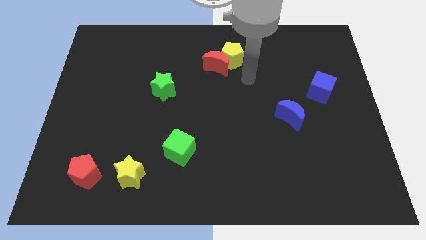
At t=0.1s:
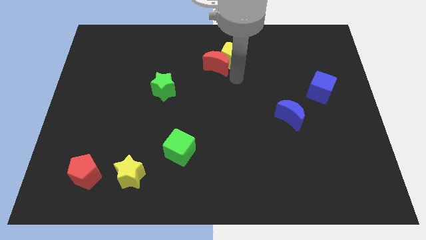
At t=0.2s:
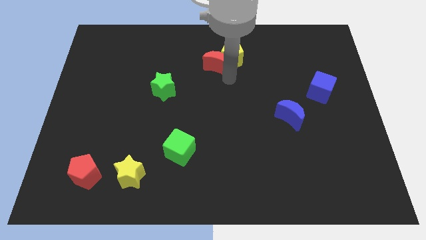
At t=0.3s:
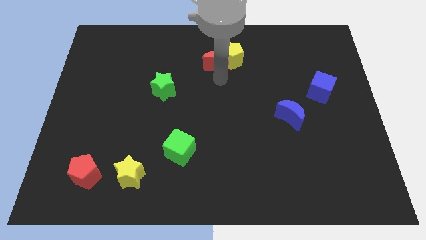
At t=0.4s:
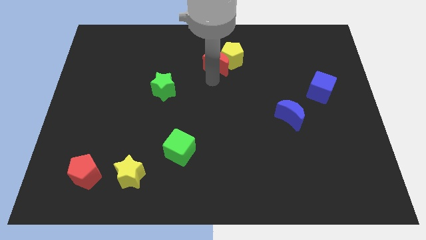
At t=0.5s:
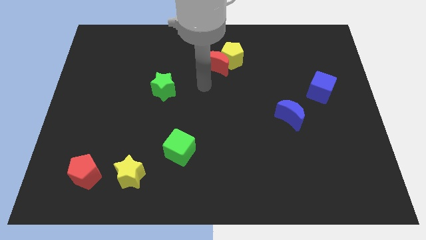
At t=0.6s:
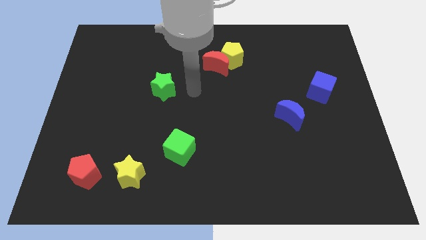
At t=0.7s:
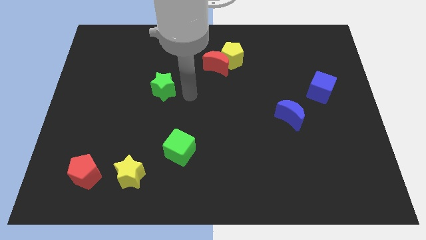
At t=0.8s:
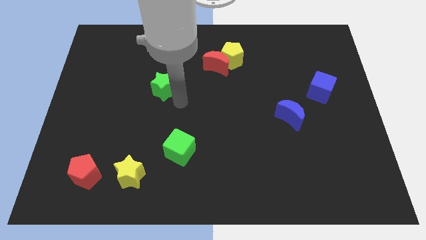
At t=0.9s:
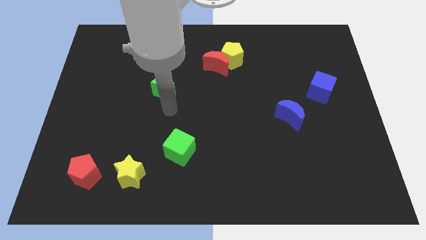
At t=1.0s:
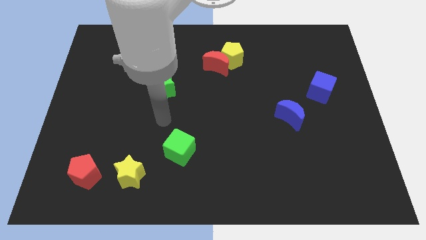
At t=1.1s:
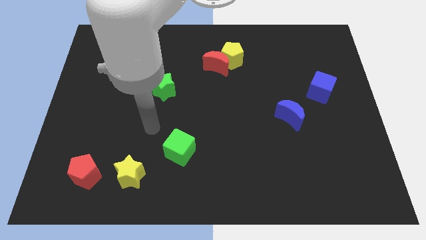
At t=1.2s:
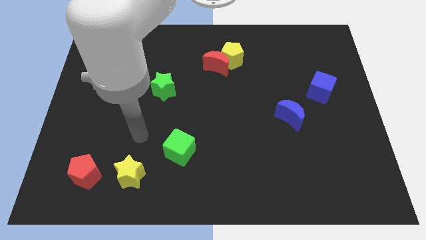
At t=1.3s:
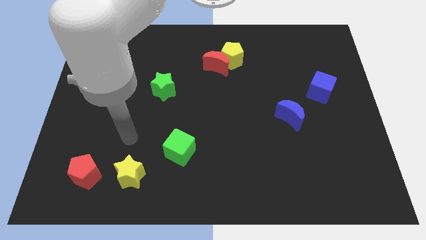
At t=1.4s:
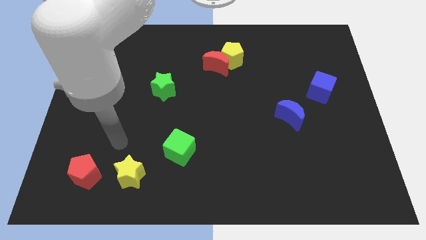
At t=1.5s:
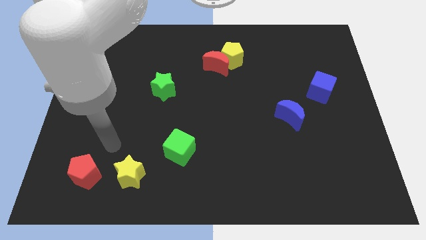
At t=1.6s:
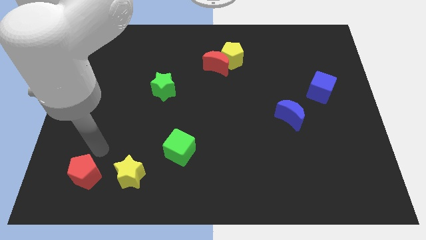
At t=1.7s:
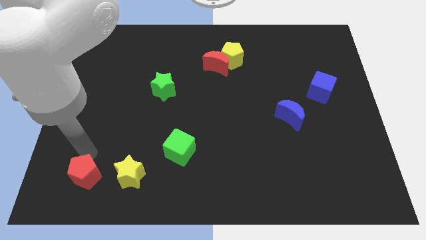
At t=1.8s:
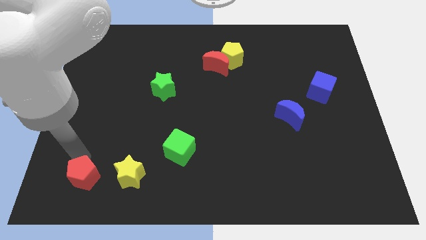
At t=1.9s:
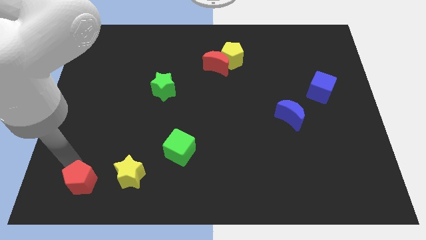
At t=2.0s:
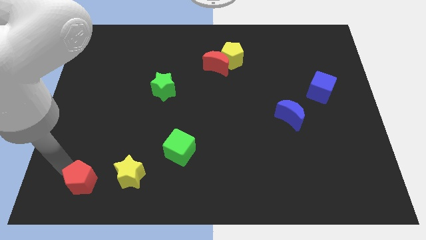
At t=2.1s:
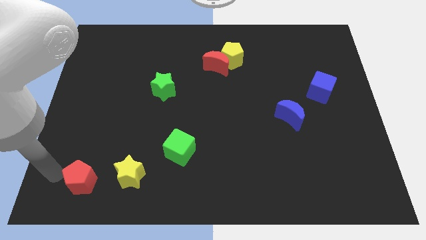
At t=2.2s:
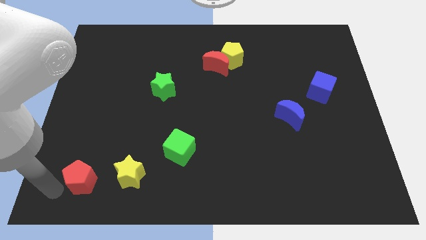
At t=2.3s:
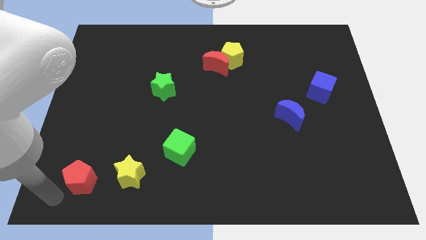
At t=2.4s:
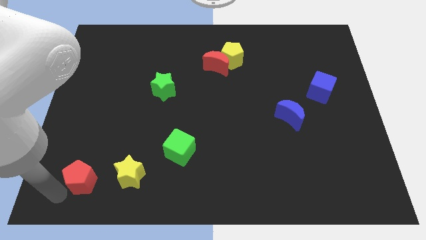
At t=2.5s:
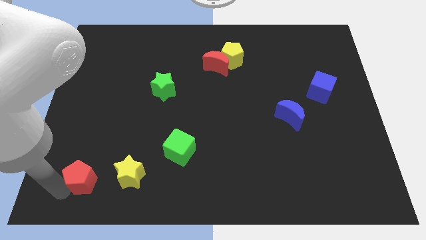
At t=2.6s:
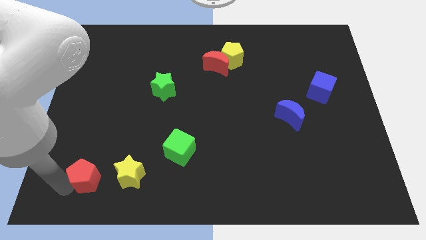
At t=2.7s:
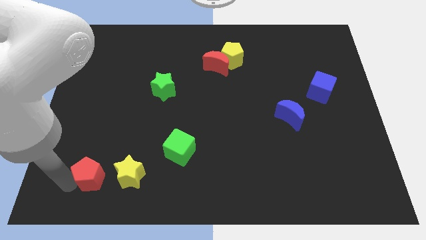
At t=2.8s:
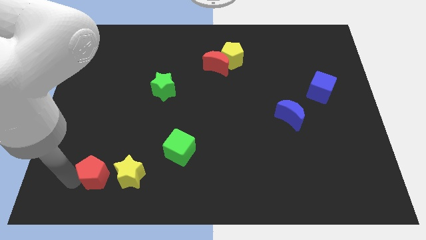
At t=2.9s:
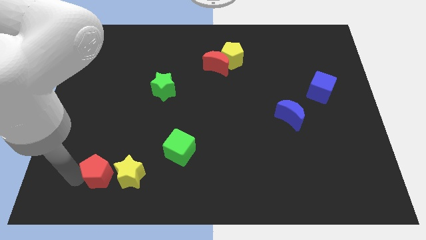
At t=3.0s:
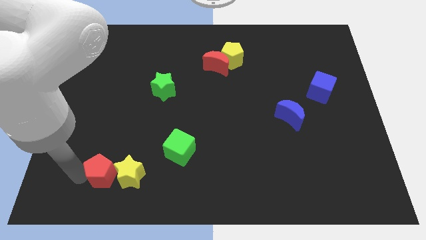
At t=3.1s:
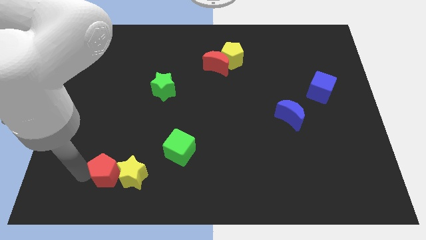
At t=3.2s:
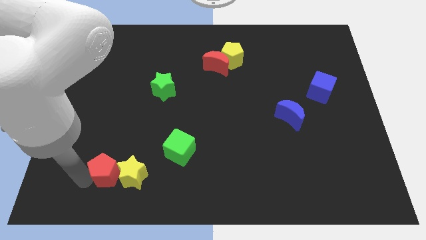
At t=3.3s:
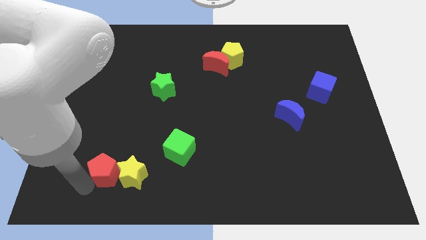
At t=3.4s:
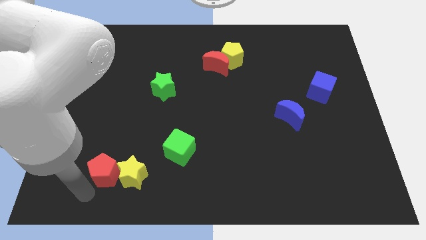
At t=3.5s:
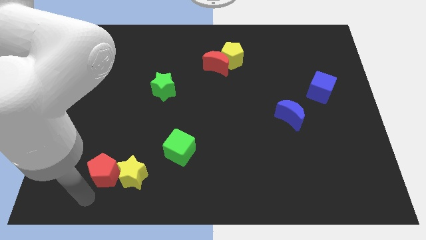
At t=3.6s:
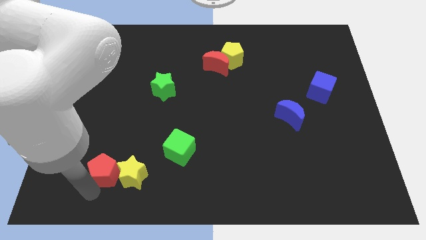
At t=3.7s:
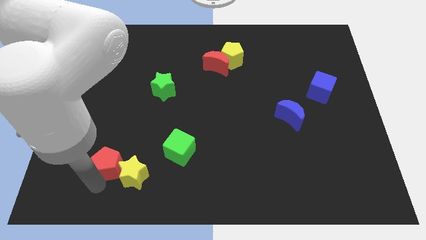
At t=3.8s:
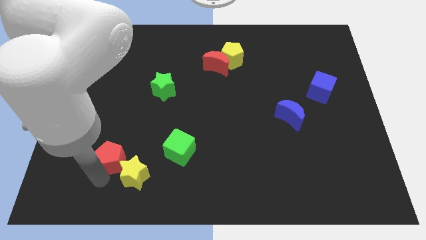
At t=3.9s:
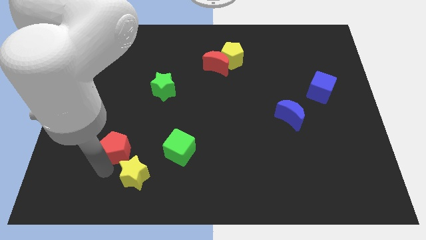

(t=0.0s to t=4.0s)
slightly move the red pentagon upwards and then right

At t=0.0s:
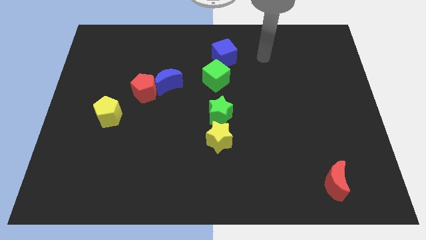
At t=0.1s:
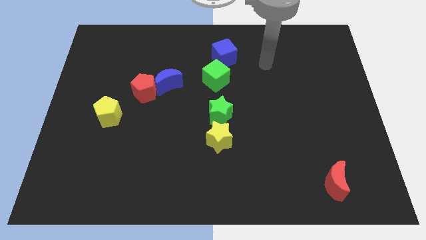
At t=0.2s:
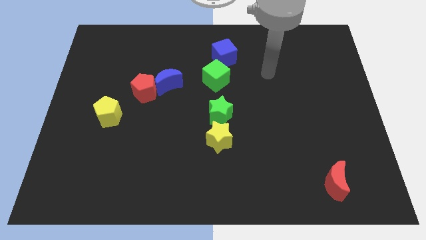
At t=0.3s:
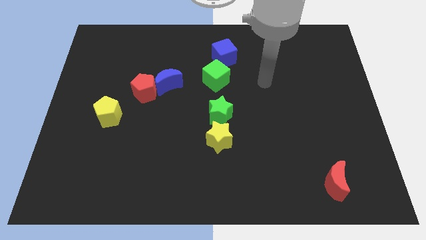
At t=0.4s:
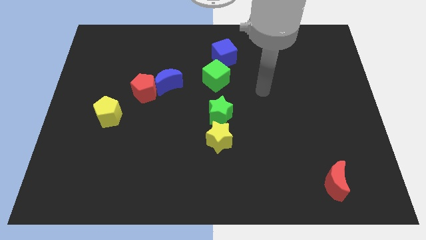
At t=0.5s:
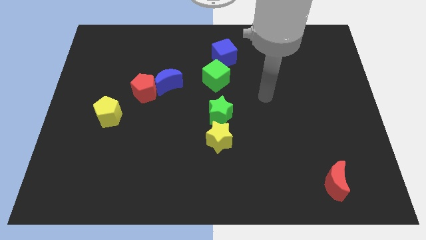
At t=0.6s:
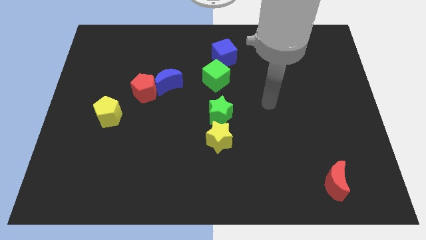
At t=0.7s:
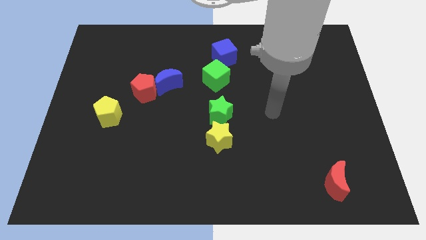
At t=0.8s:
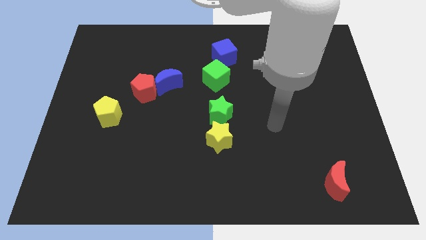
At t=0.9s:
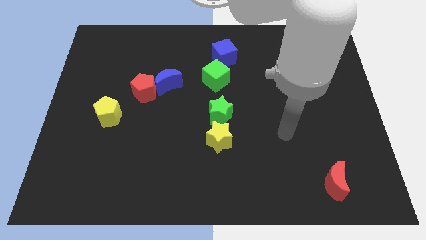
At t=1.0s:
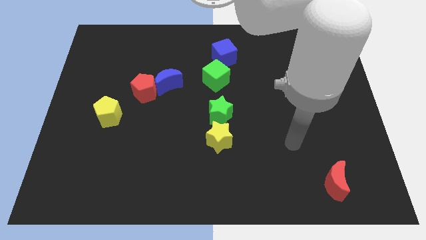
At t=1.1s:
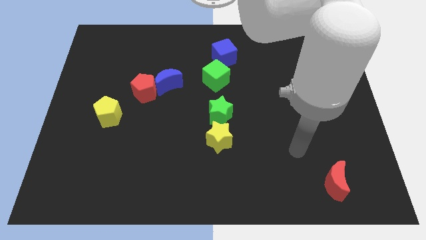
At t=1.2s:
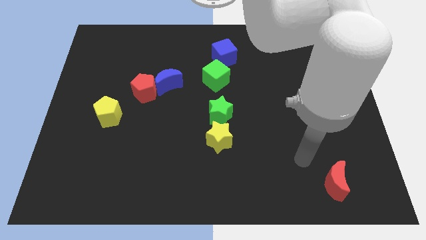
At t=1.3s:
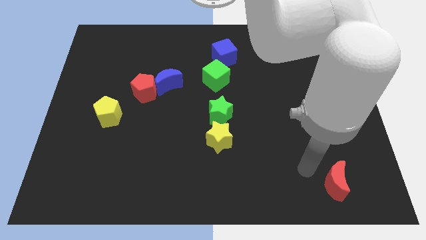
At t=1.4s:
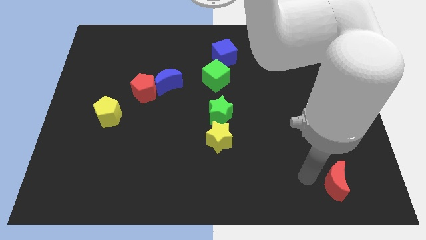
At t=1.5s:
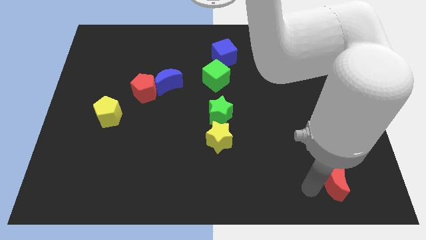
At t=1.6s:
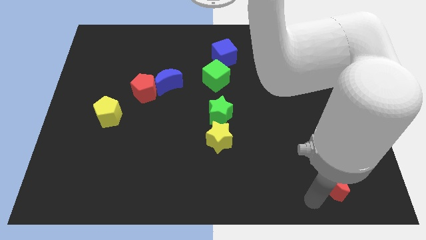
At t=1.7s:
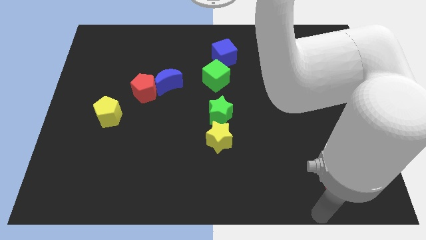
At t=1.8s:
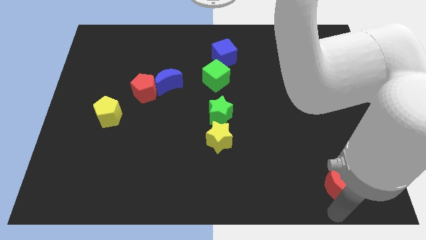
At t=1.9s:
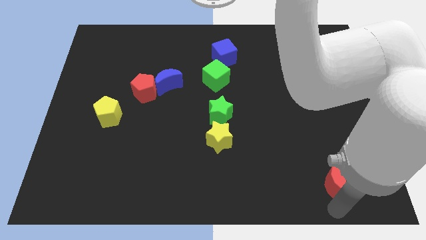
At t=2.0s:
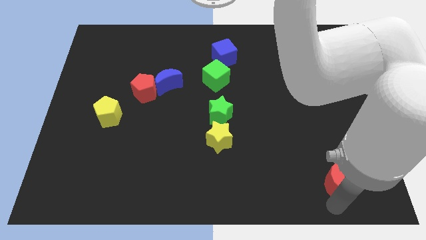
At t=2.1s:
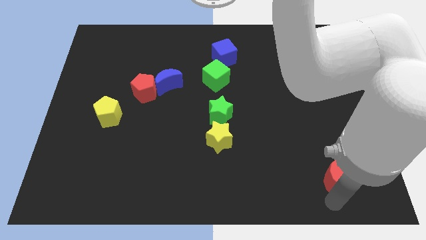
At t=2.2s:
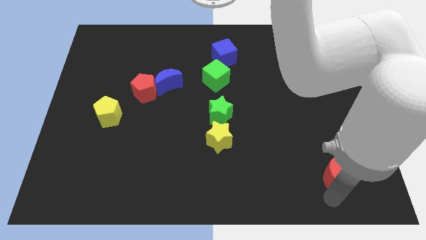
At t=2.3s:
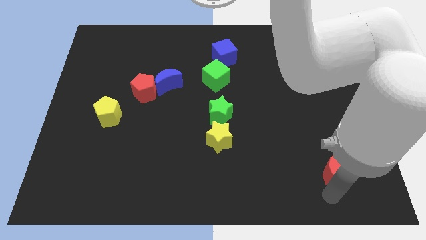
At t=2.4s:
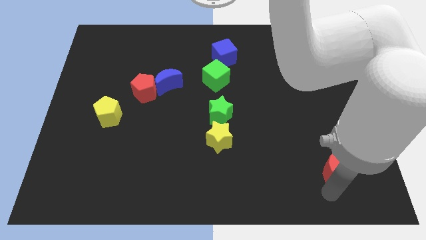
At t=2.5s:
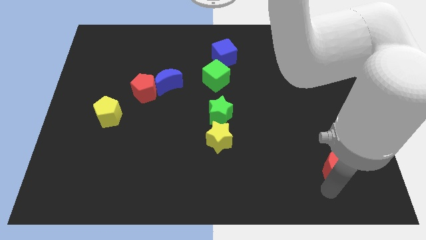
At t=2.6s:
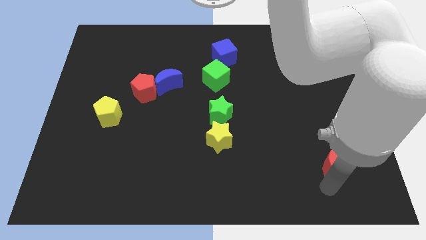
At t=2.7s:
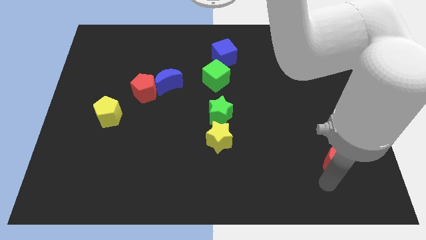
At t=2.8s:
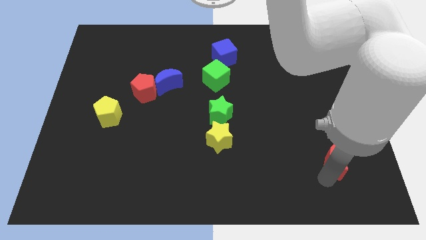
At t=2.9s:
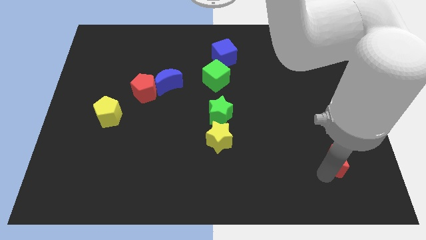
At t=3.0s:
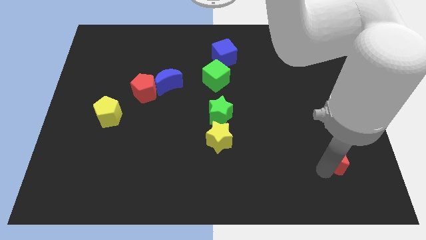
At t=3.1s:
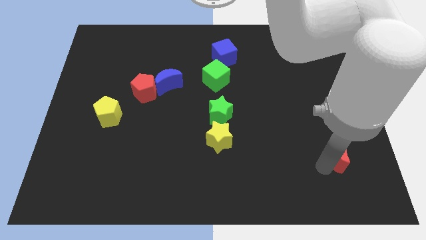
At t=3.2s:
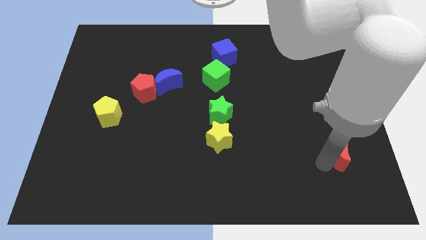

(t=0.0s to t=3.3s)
slide the red moon a little bit upwards

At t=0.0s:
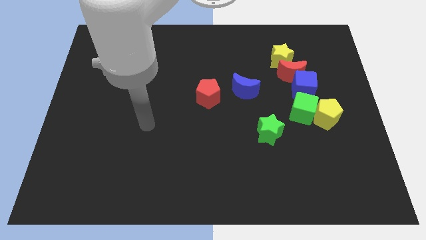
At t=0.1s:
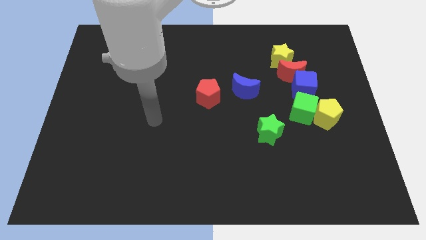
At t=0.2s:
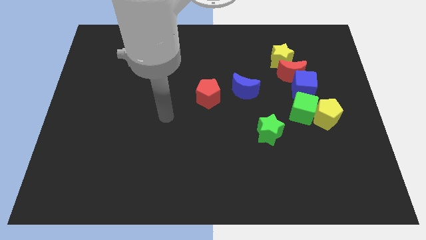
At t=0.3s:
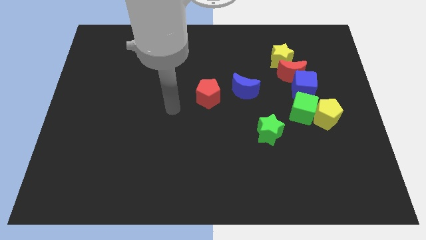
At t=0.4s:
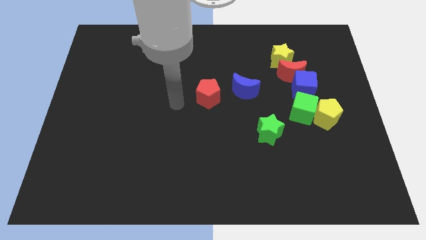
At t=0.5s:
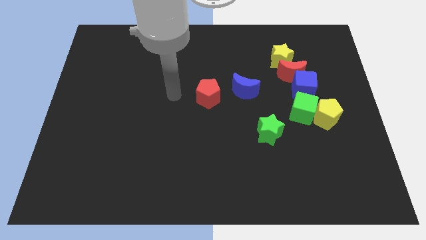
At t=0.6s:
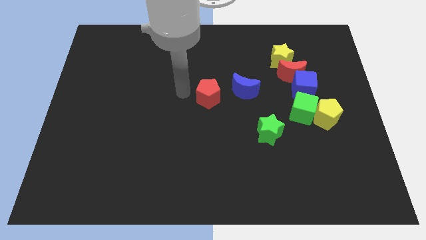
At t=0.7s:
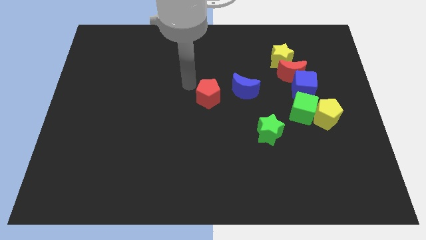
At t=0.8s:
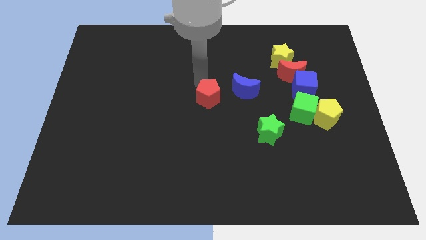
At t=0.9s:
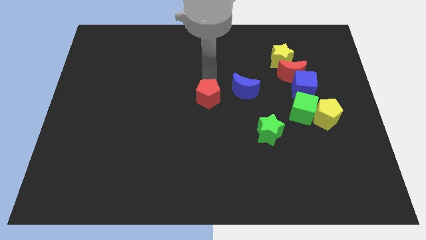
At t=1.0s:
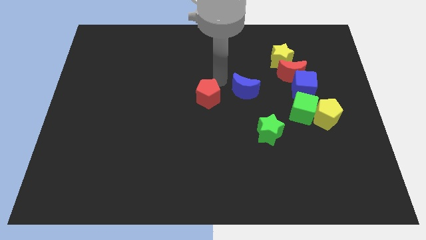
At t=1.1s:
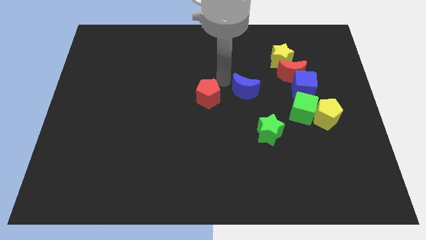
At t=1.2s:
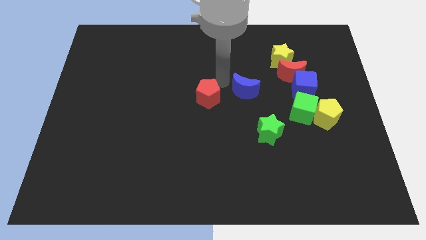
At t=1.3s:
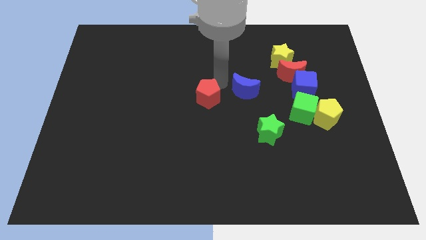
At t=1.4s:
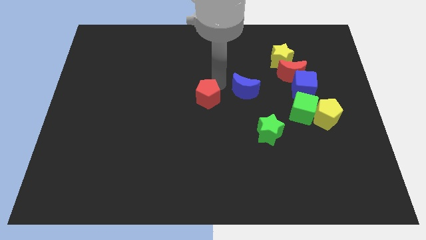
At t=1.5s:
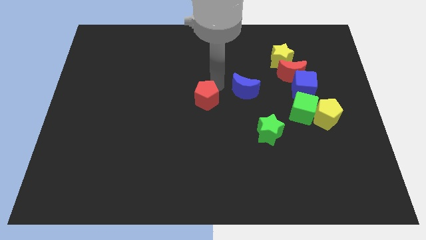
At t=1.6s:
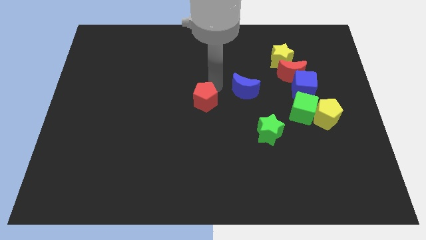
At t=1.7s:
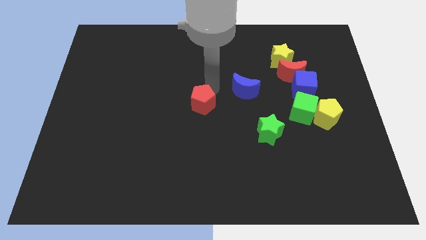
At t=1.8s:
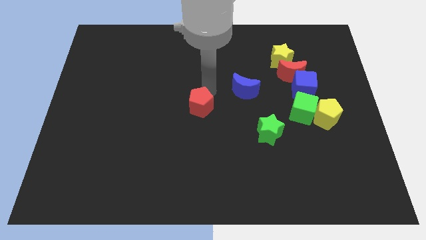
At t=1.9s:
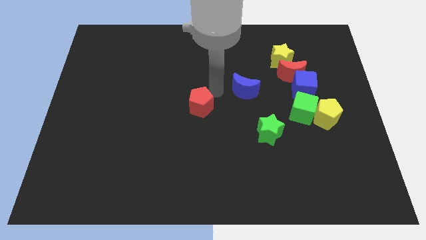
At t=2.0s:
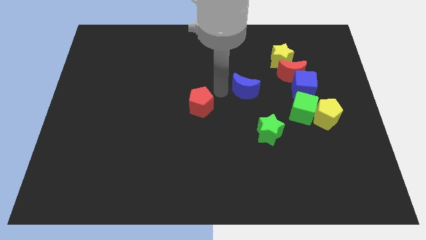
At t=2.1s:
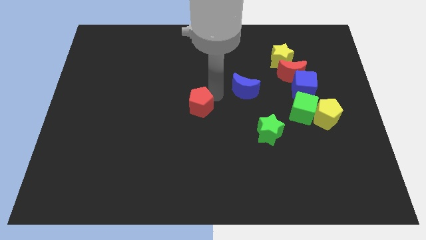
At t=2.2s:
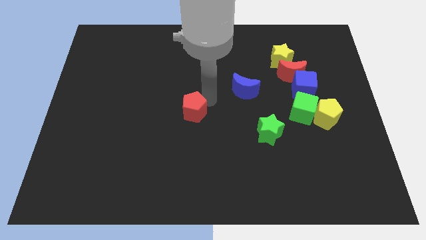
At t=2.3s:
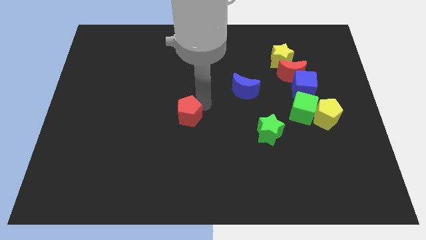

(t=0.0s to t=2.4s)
move the red pentagon a bit down and then to the left
